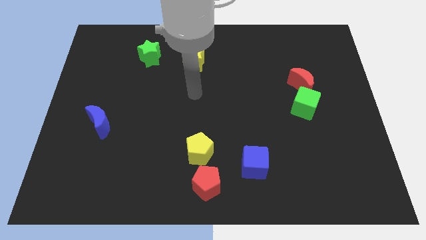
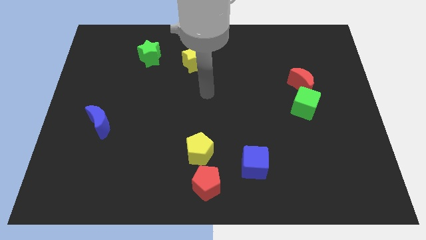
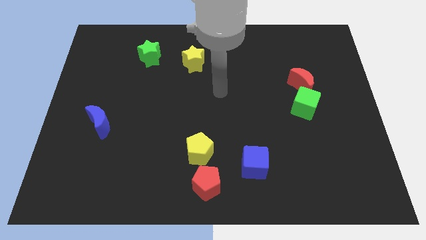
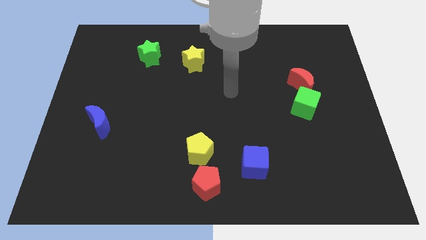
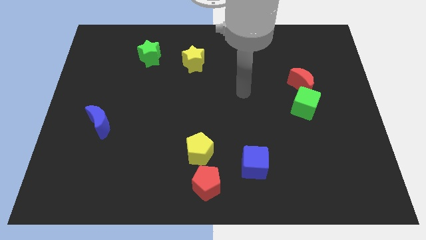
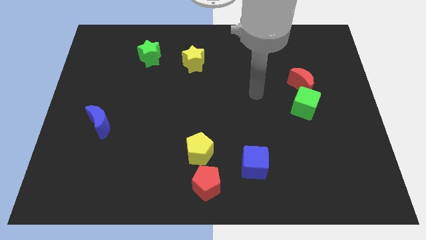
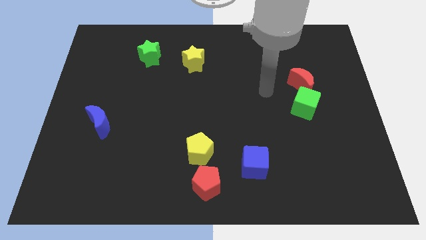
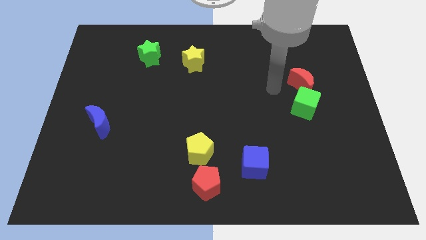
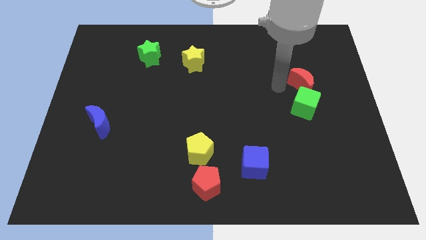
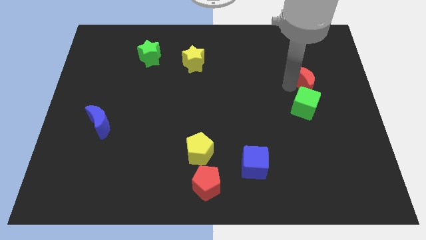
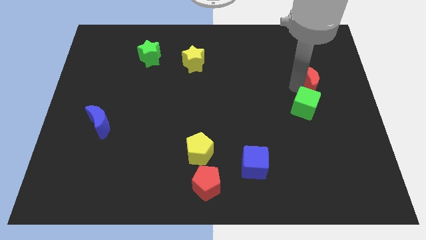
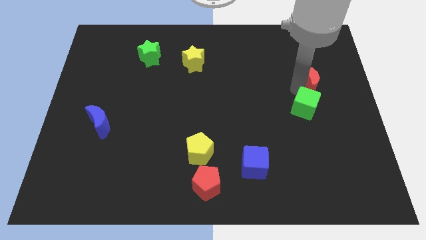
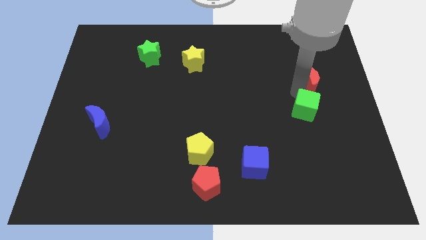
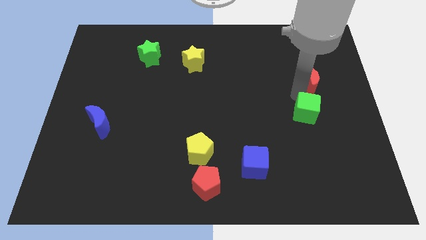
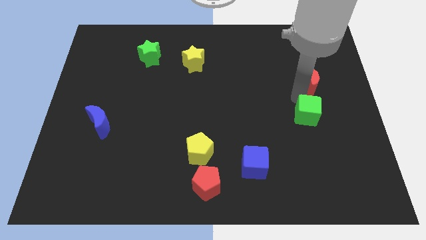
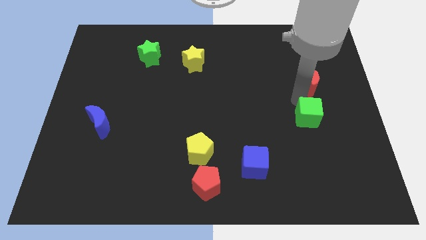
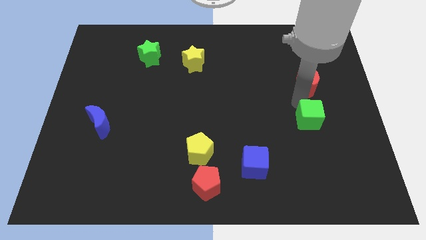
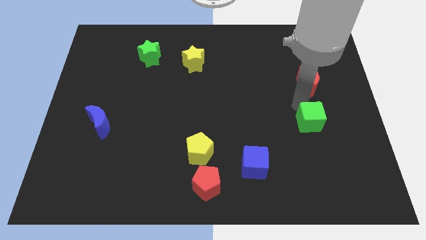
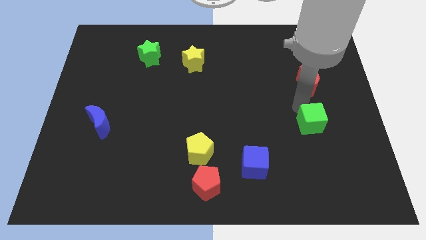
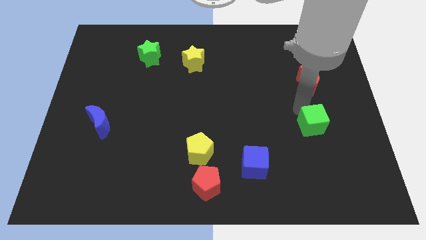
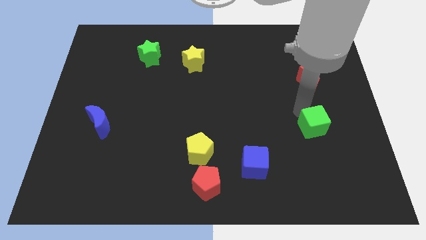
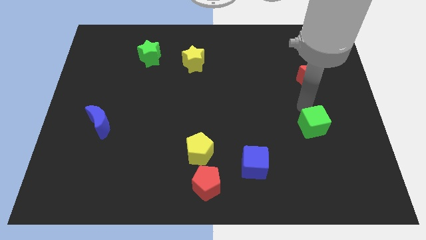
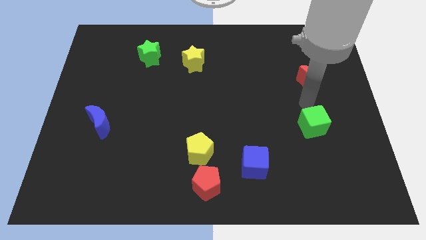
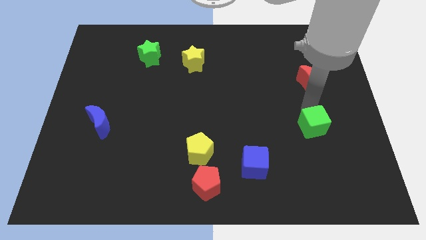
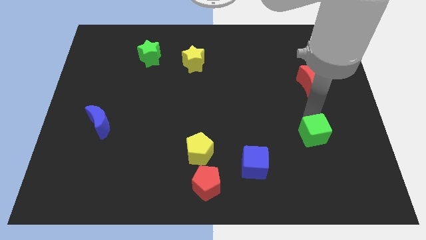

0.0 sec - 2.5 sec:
slide the green cube down somewhat

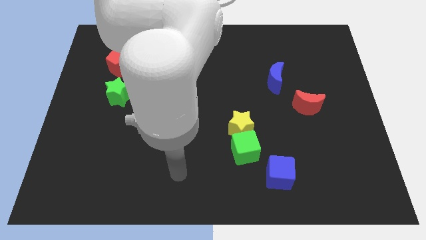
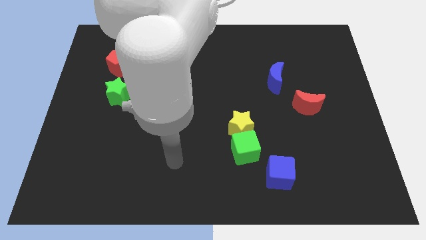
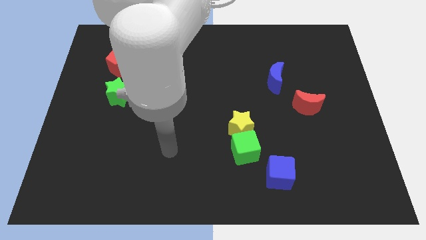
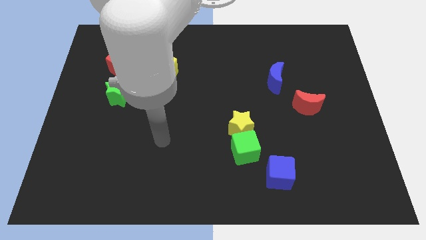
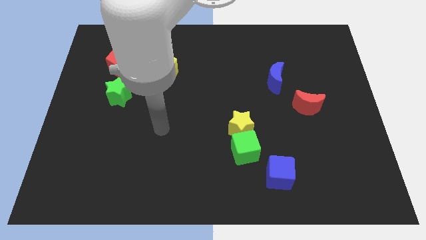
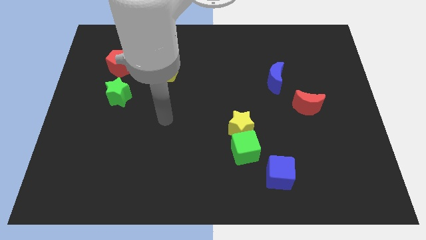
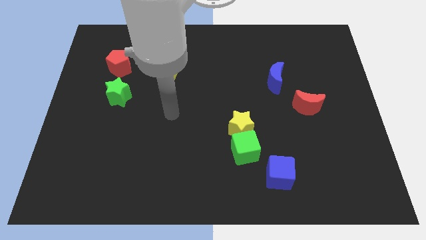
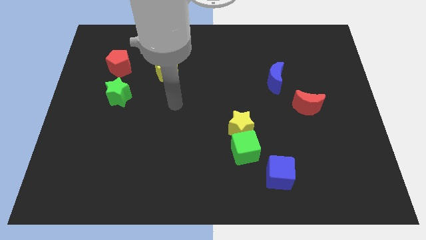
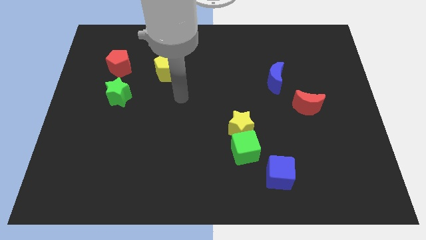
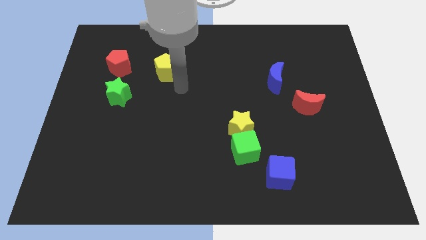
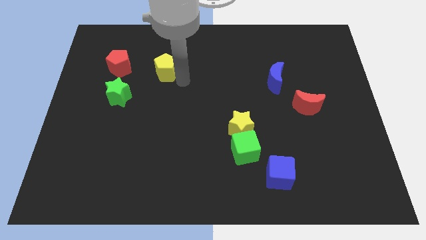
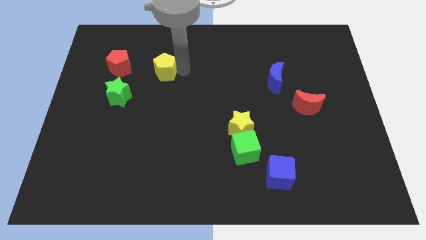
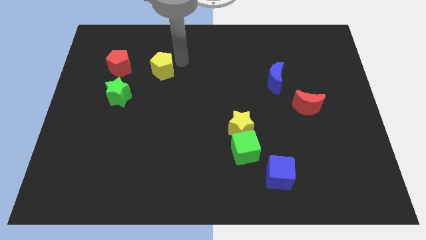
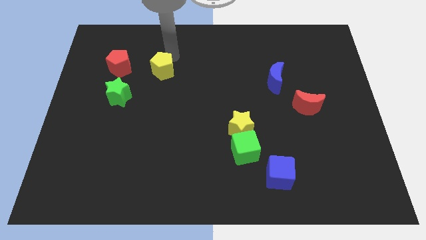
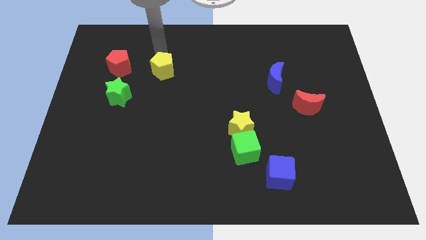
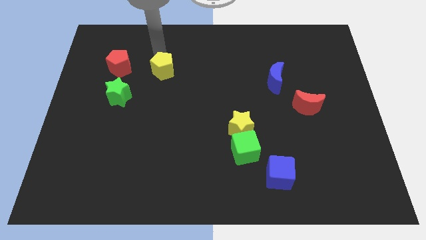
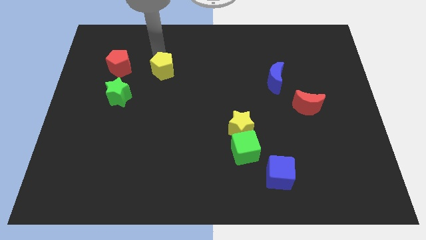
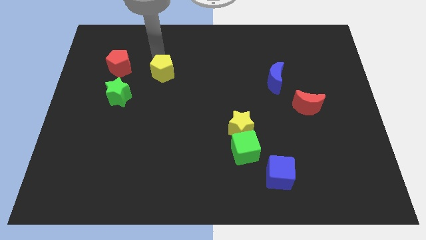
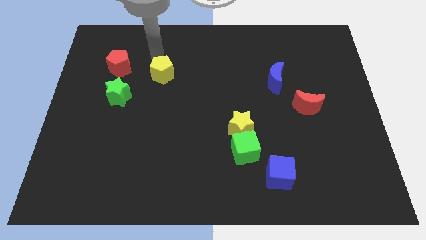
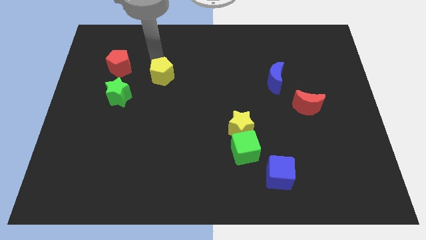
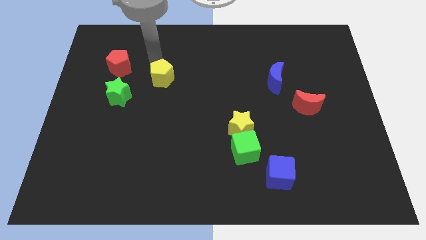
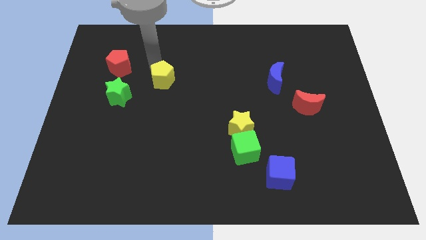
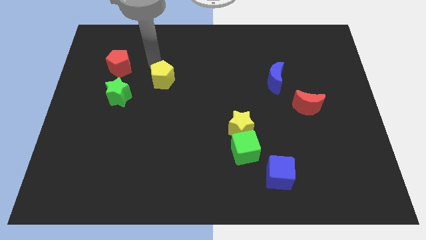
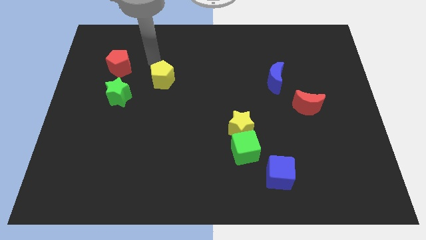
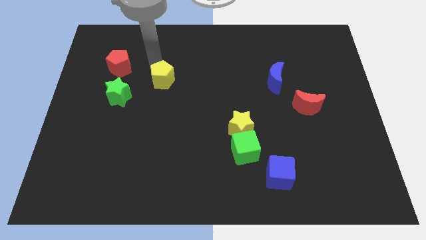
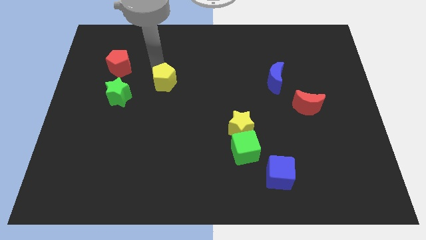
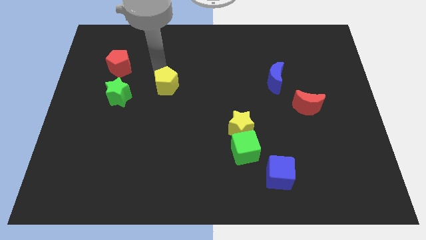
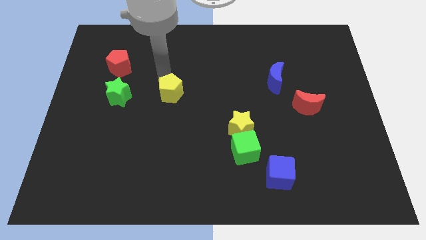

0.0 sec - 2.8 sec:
push the yellow pentagon a little down

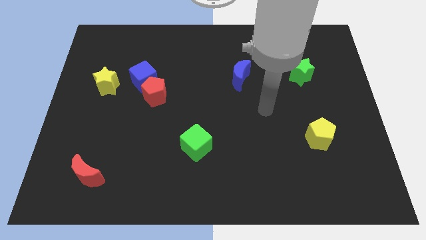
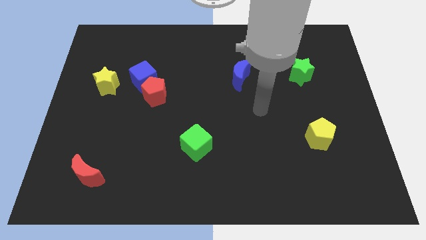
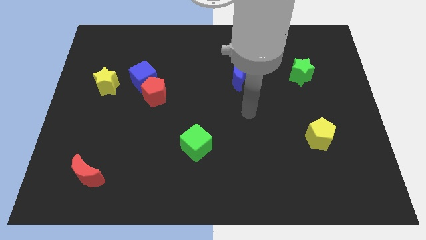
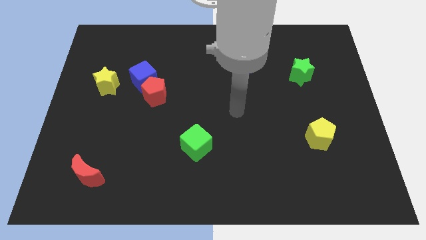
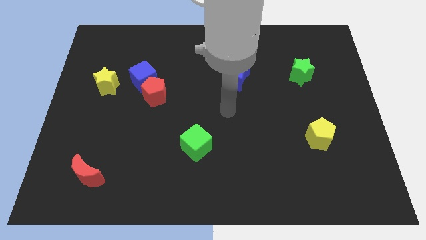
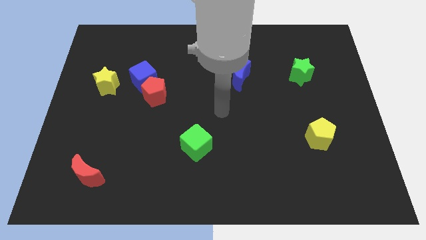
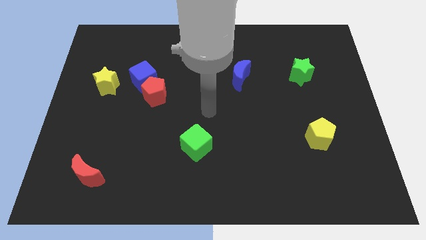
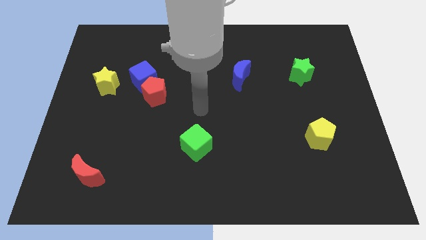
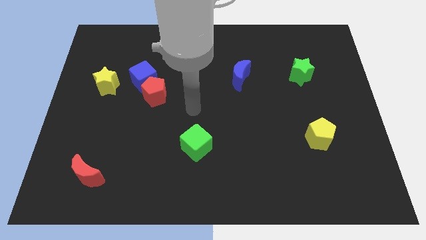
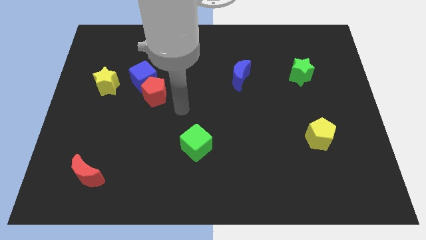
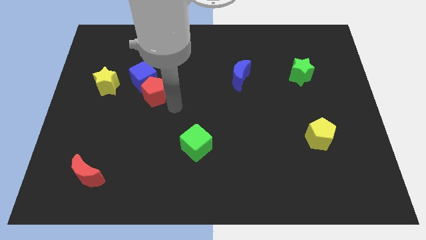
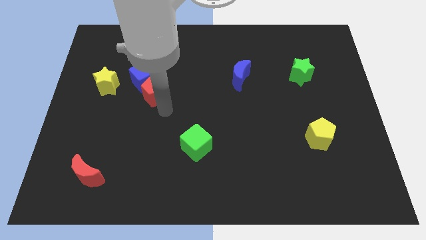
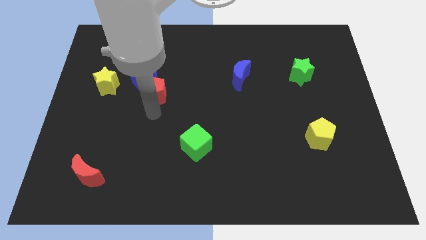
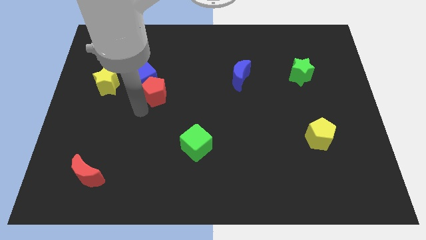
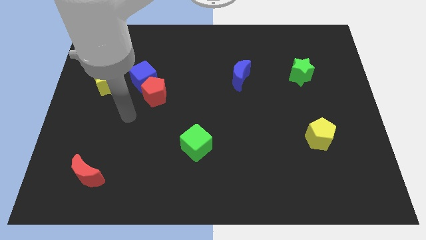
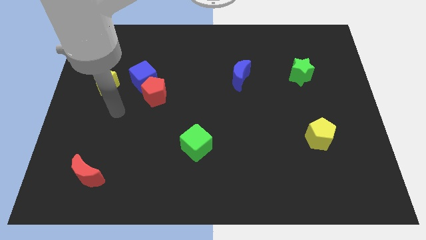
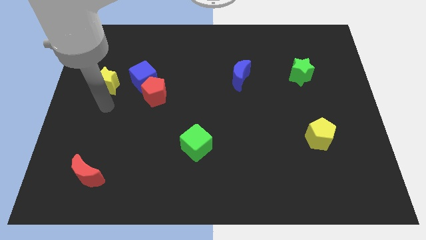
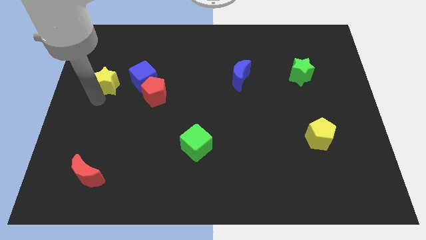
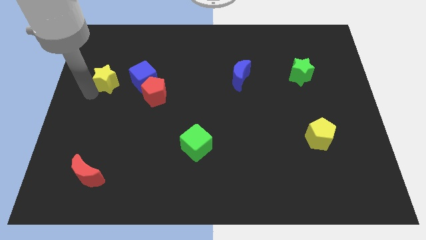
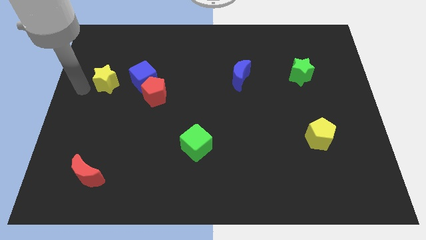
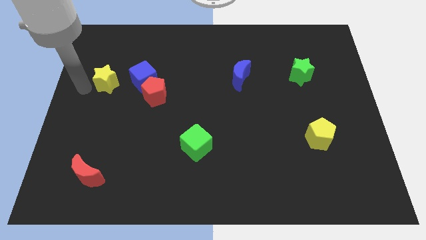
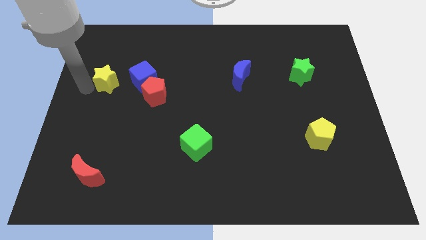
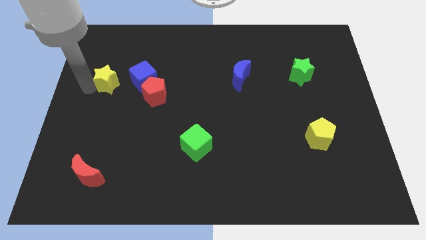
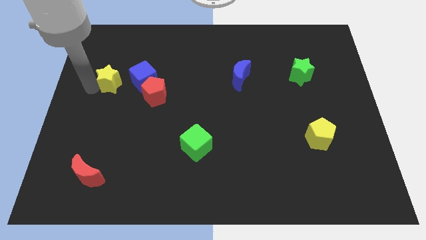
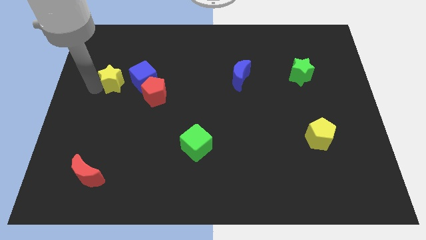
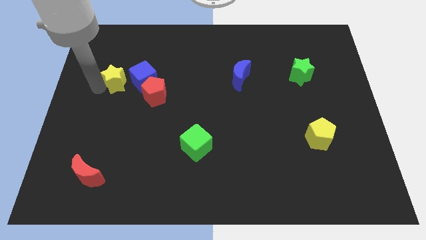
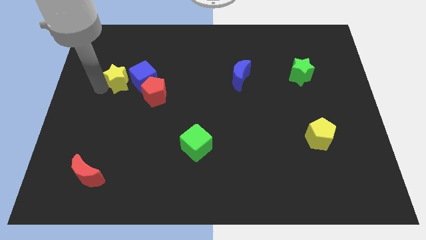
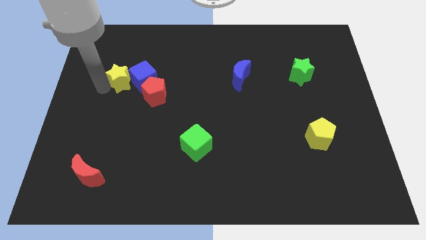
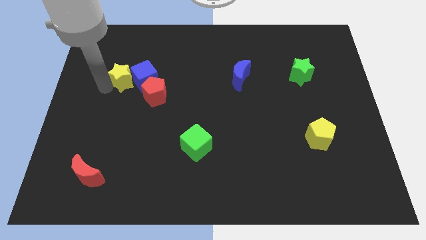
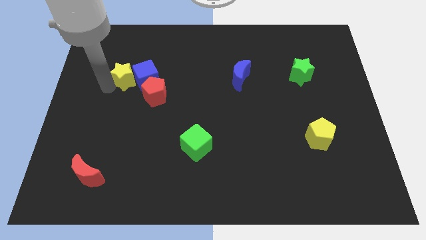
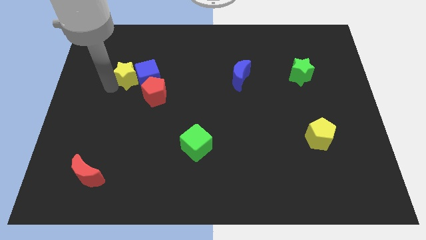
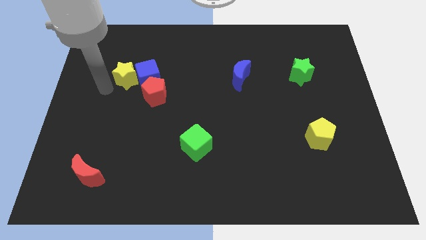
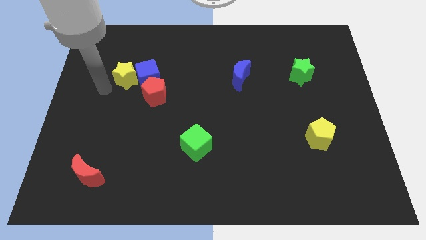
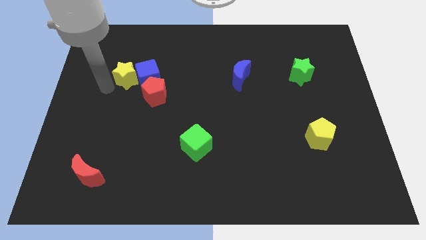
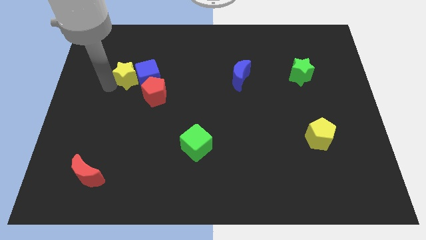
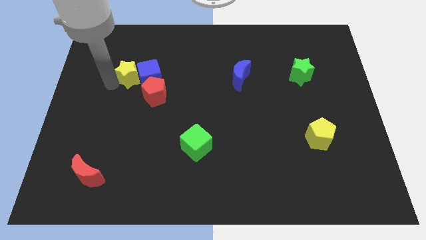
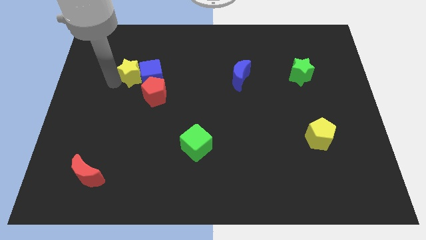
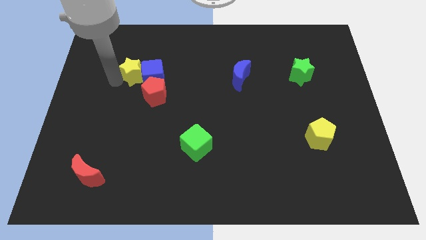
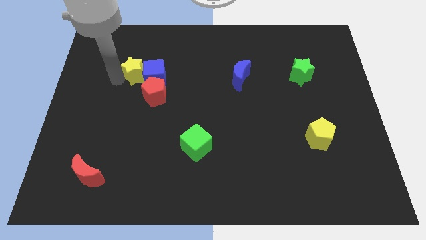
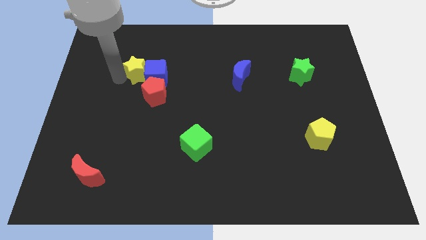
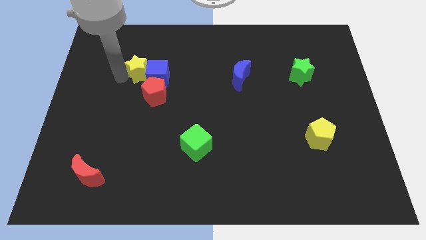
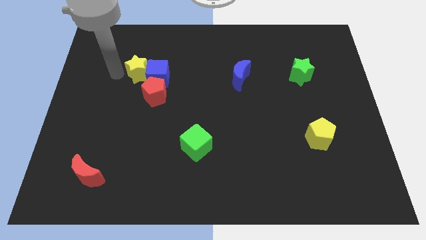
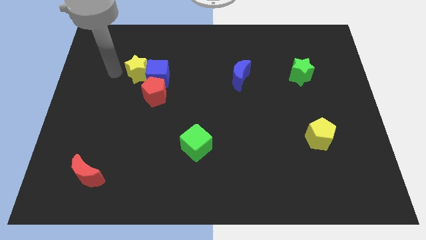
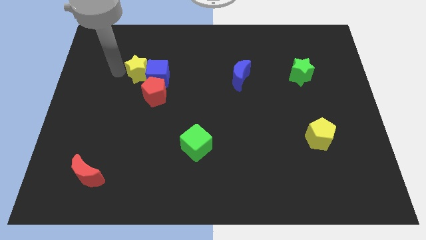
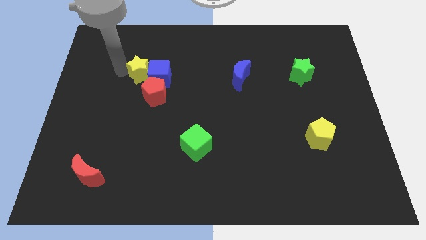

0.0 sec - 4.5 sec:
slightly slide the yellow star right
